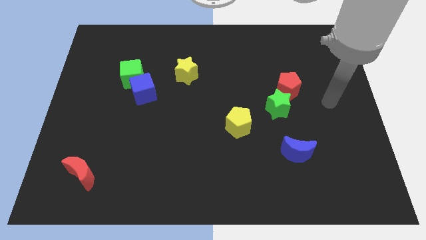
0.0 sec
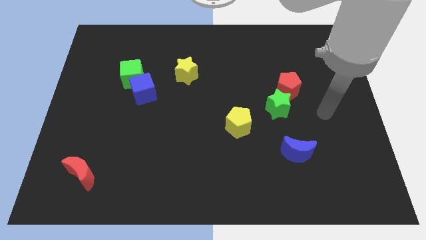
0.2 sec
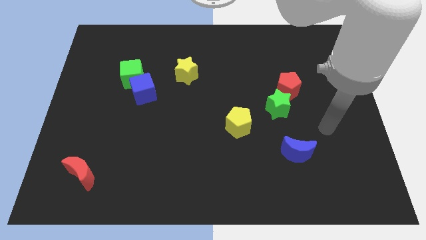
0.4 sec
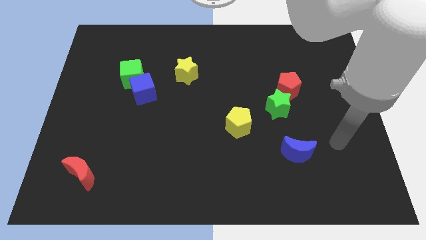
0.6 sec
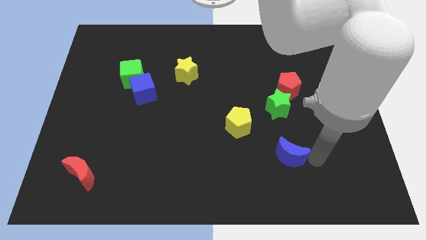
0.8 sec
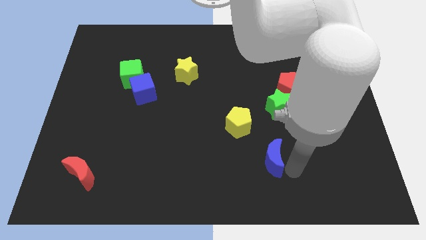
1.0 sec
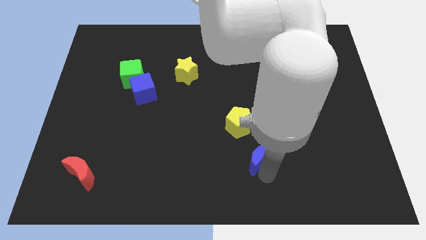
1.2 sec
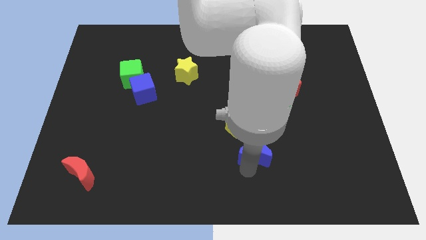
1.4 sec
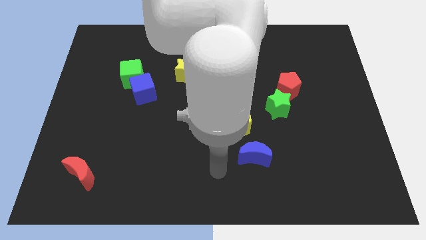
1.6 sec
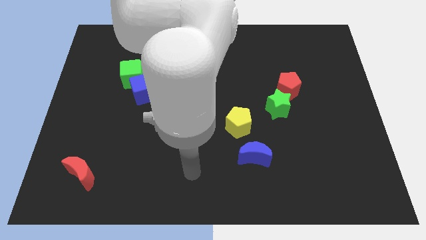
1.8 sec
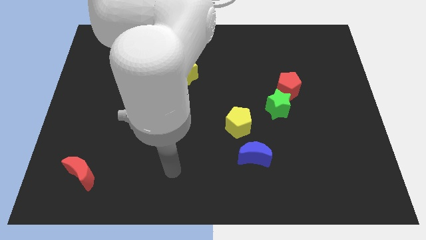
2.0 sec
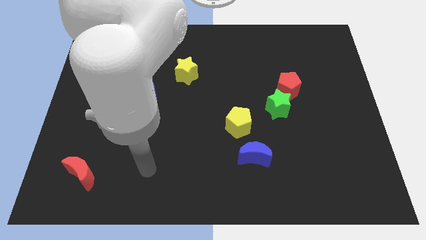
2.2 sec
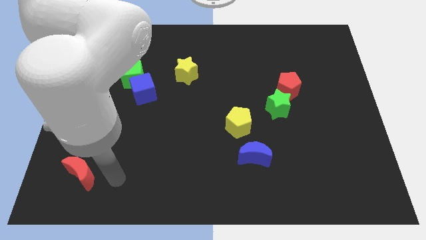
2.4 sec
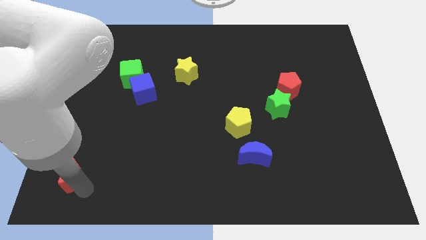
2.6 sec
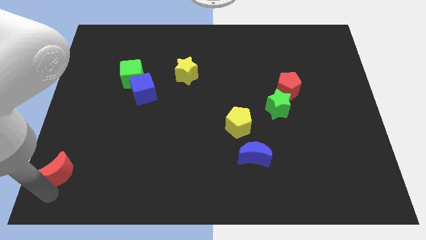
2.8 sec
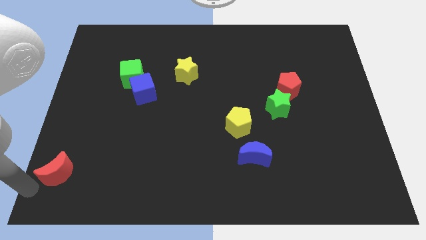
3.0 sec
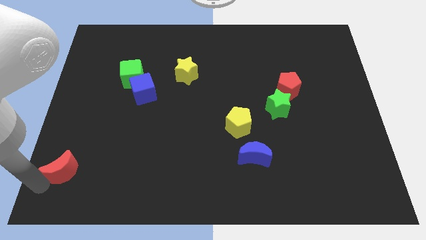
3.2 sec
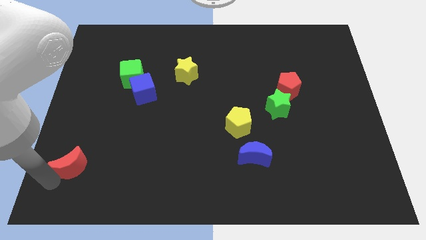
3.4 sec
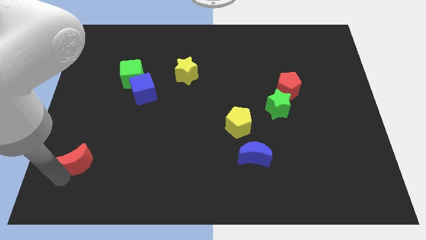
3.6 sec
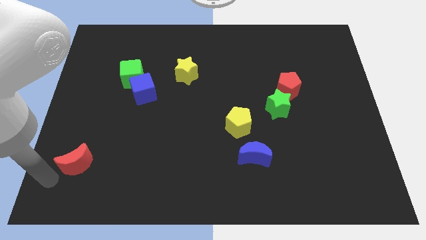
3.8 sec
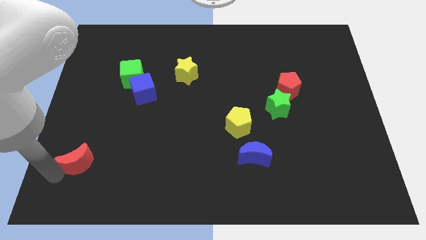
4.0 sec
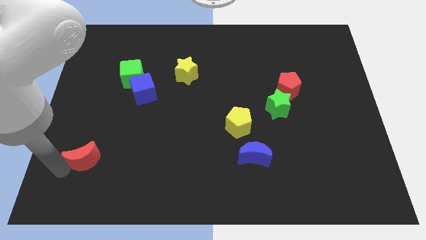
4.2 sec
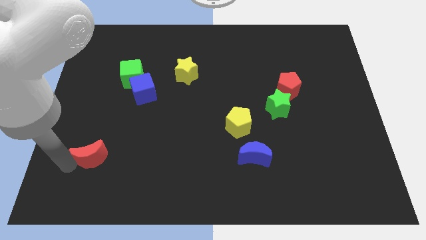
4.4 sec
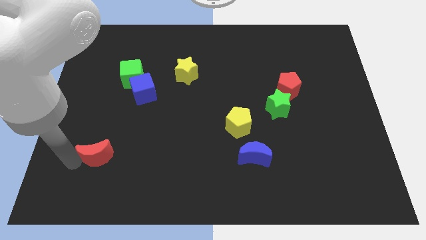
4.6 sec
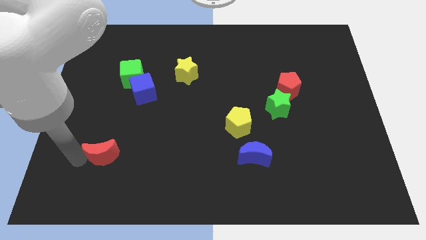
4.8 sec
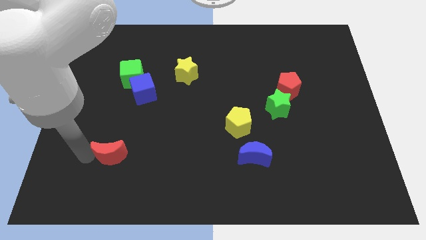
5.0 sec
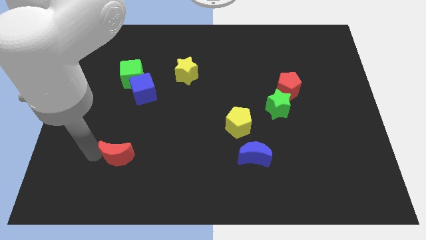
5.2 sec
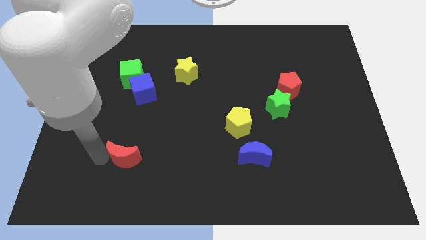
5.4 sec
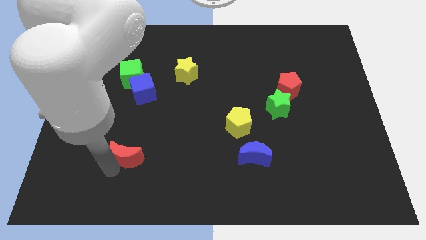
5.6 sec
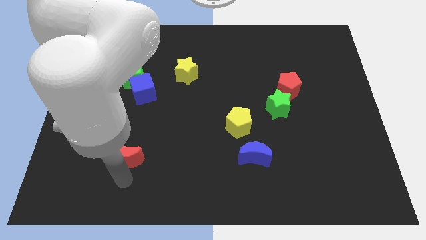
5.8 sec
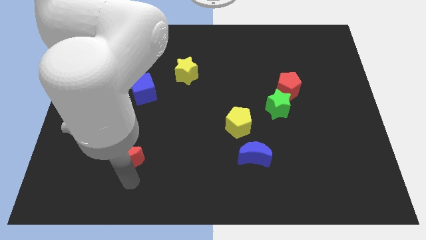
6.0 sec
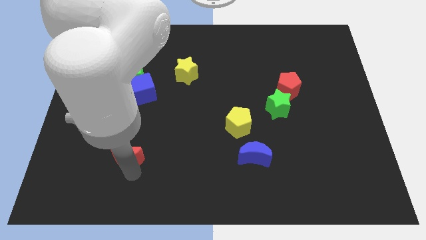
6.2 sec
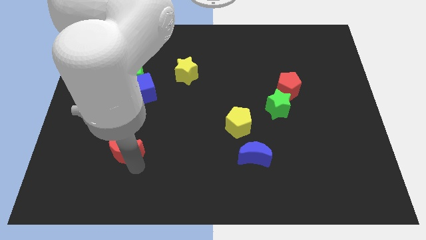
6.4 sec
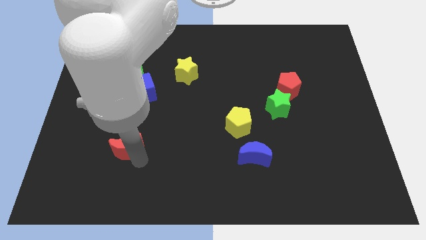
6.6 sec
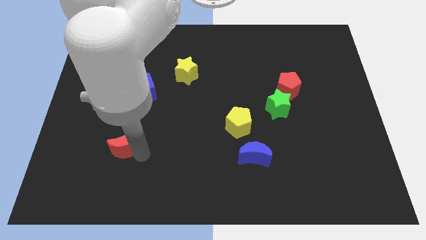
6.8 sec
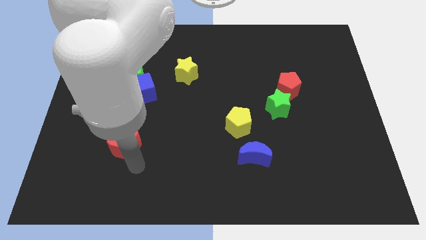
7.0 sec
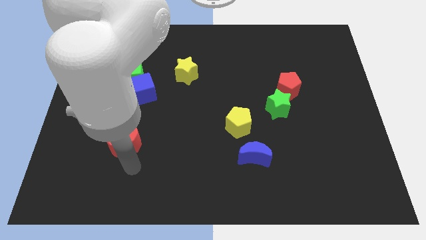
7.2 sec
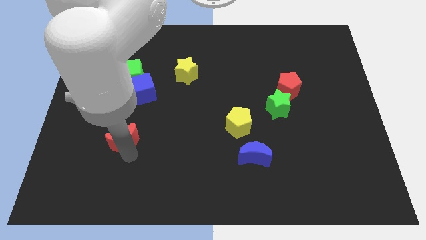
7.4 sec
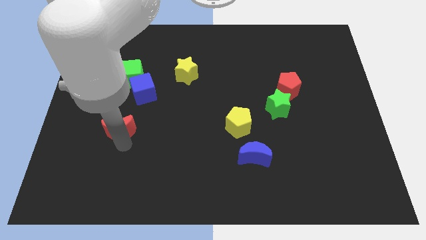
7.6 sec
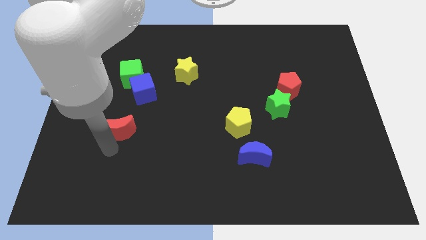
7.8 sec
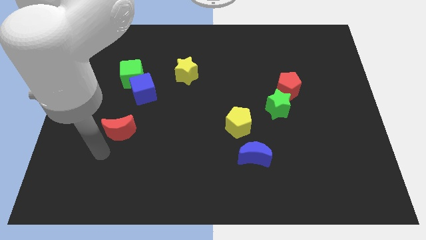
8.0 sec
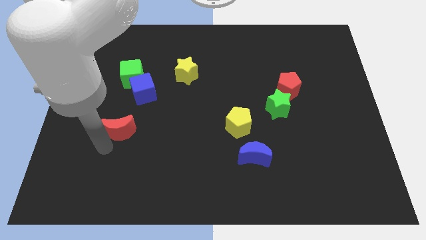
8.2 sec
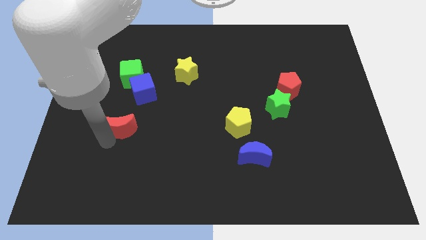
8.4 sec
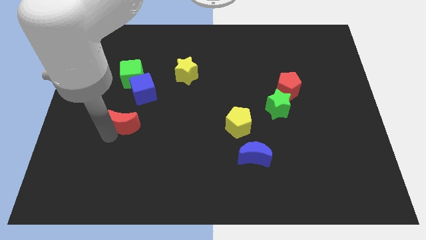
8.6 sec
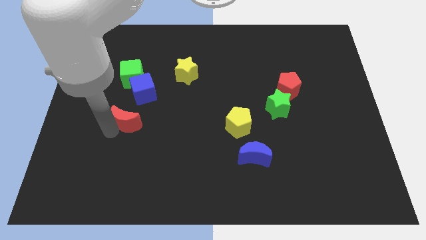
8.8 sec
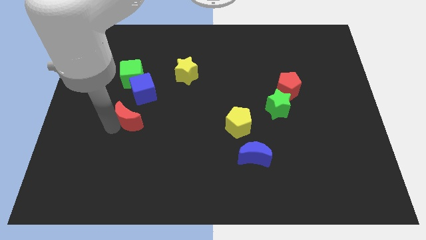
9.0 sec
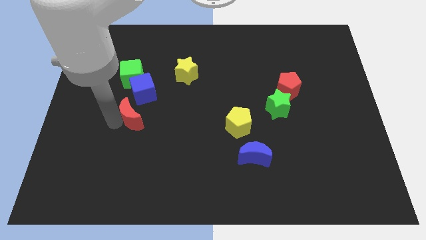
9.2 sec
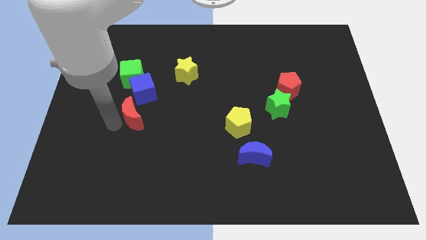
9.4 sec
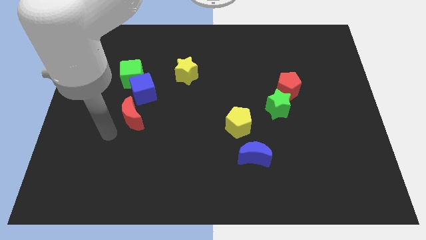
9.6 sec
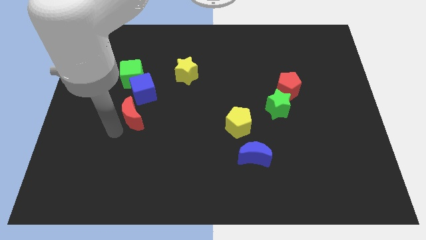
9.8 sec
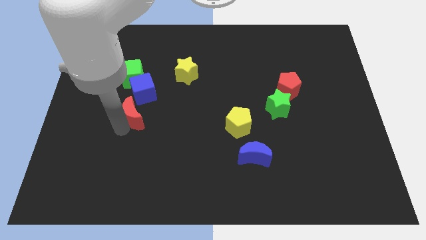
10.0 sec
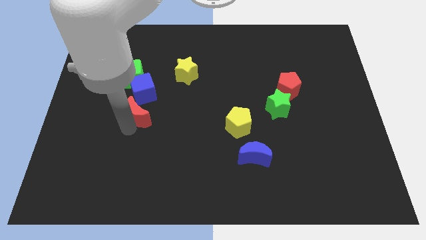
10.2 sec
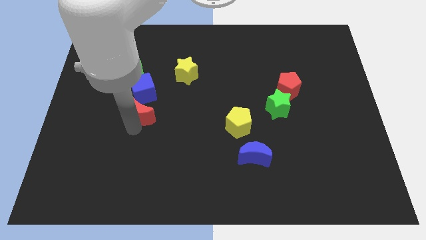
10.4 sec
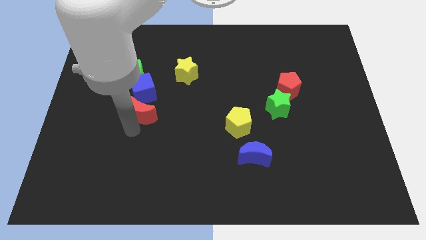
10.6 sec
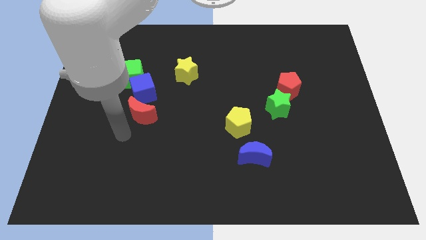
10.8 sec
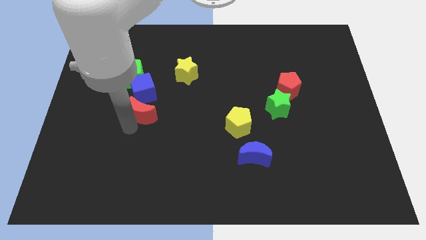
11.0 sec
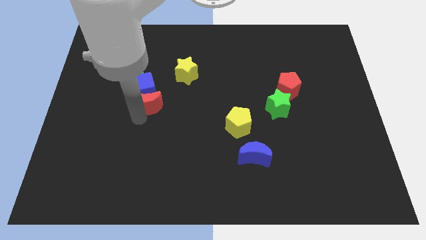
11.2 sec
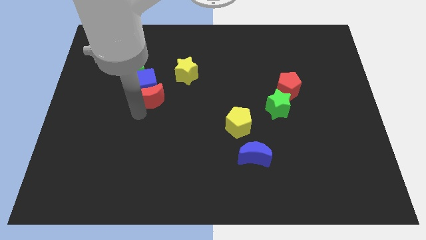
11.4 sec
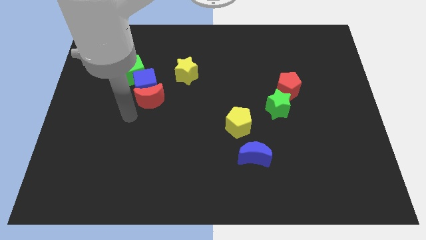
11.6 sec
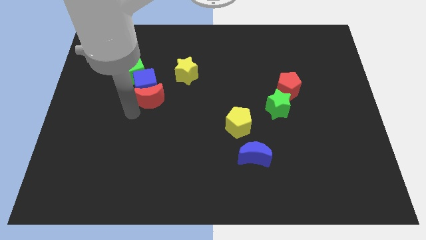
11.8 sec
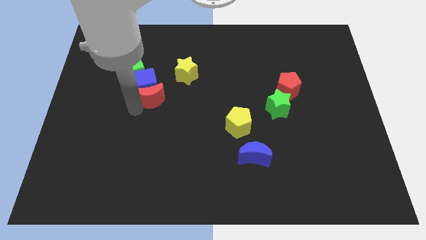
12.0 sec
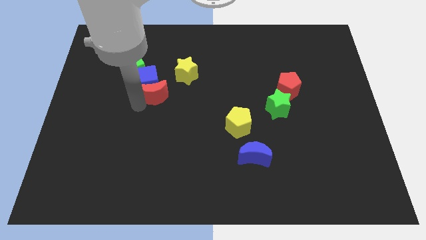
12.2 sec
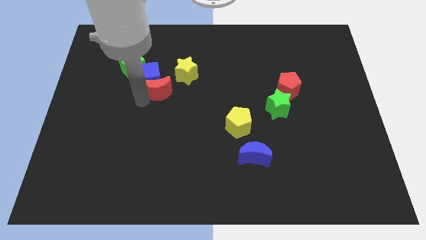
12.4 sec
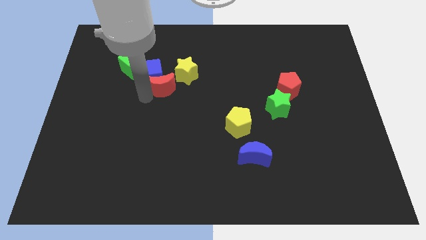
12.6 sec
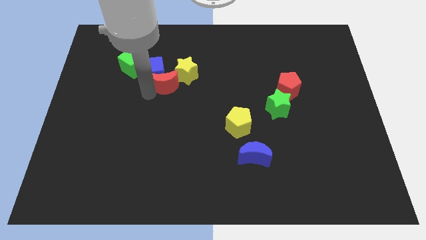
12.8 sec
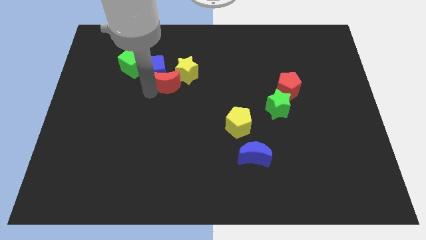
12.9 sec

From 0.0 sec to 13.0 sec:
slide the red moon next to the yellow star

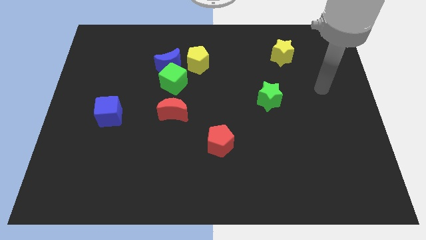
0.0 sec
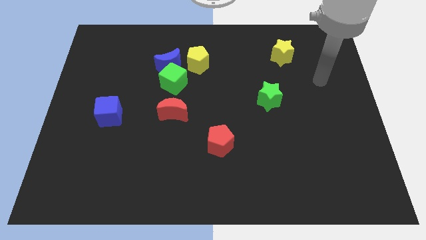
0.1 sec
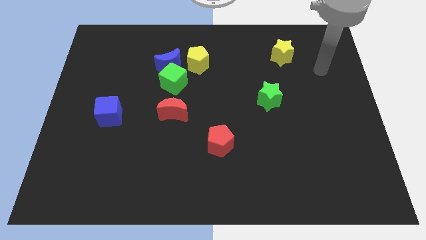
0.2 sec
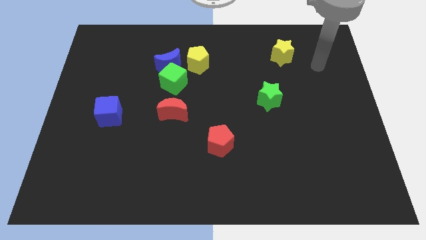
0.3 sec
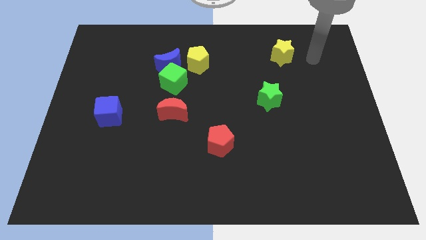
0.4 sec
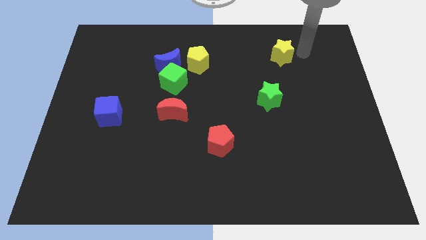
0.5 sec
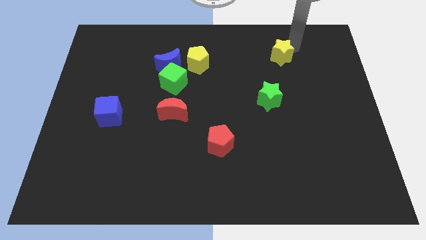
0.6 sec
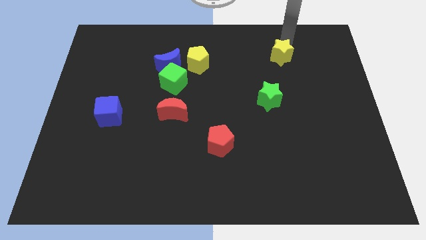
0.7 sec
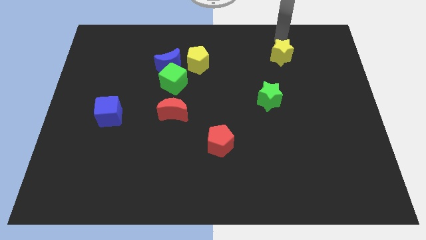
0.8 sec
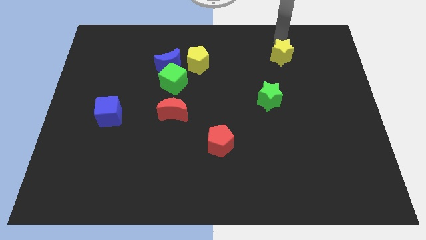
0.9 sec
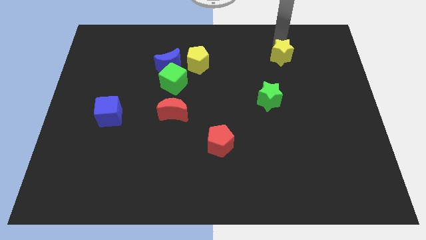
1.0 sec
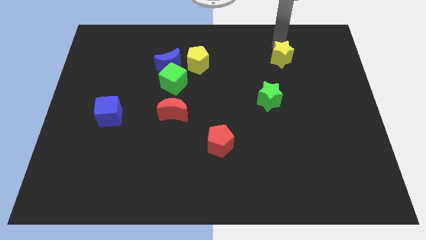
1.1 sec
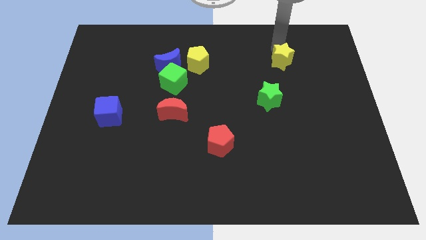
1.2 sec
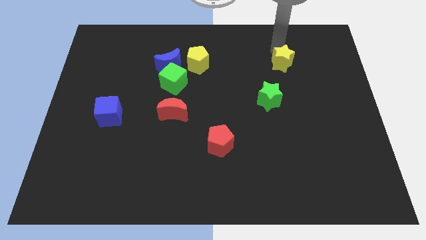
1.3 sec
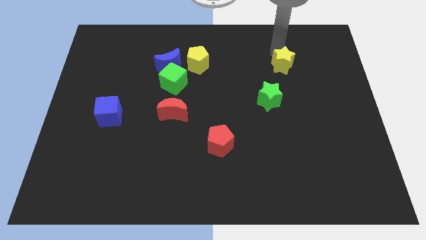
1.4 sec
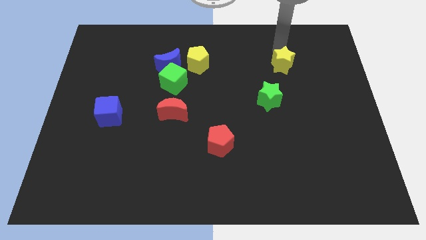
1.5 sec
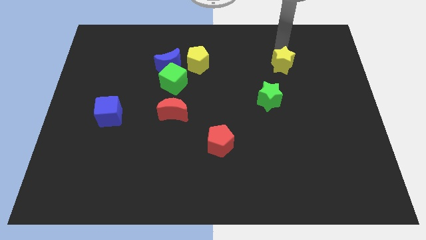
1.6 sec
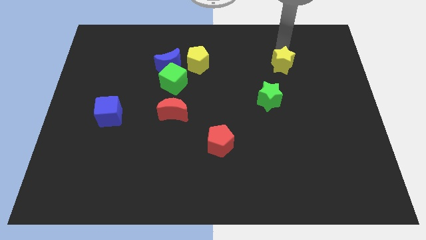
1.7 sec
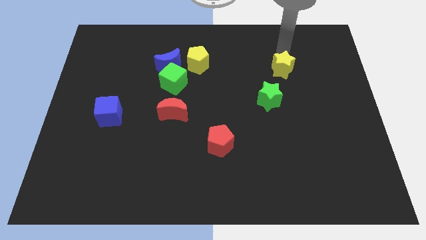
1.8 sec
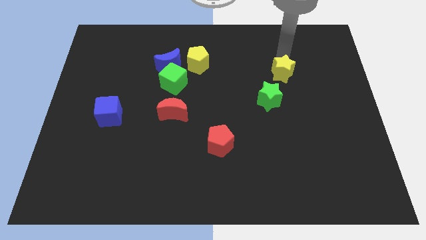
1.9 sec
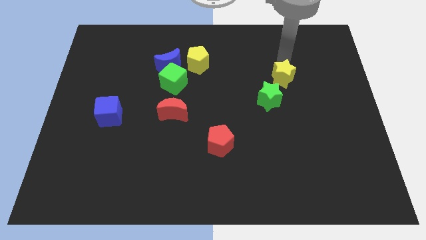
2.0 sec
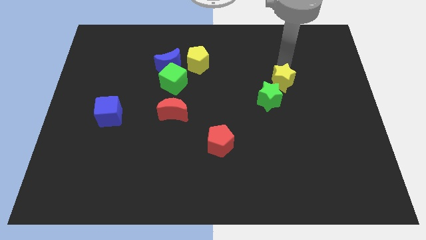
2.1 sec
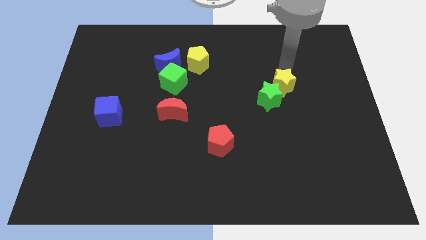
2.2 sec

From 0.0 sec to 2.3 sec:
put the yellow star next to the green star
